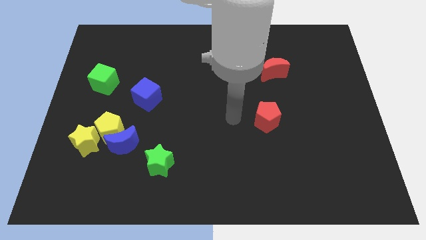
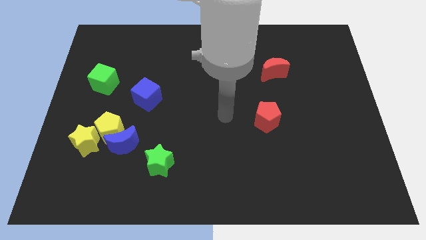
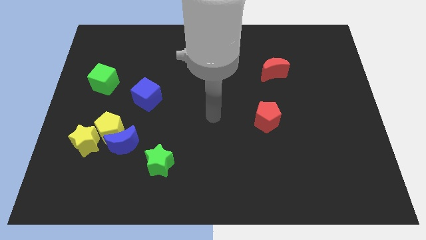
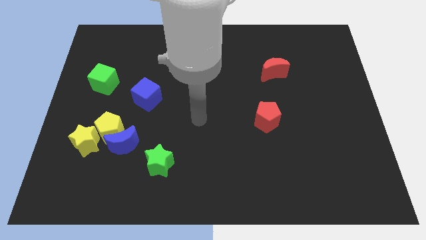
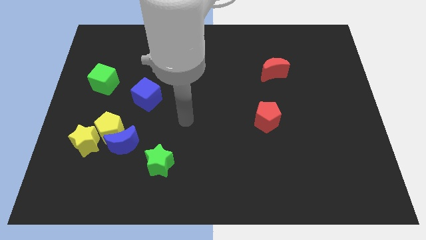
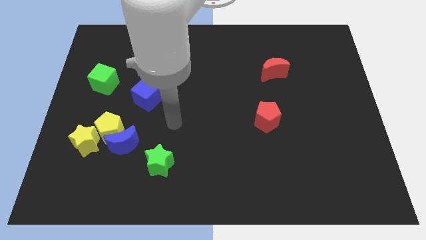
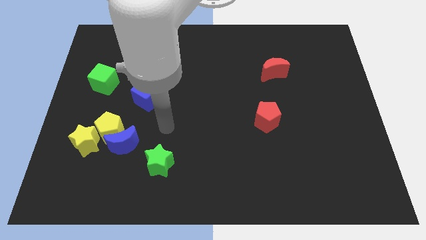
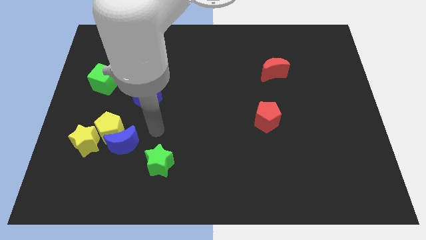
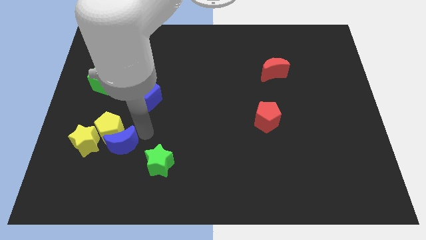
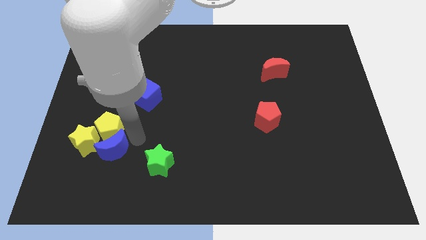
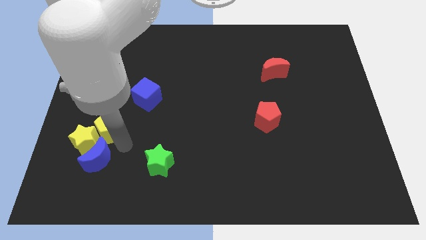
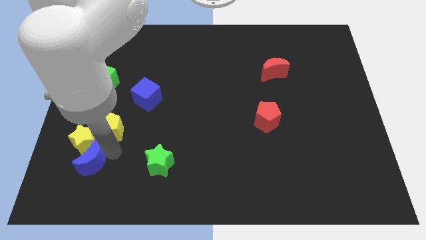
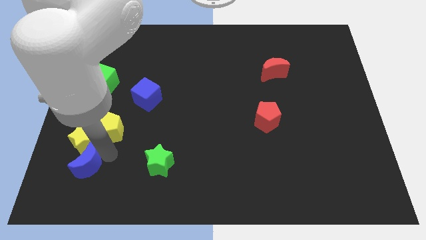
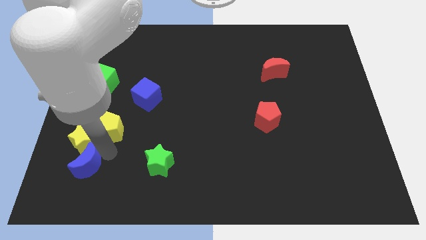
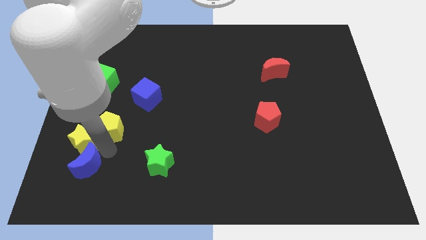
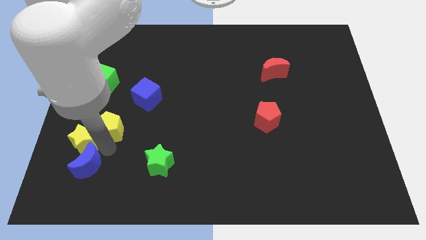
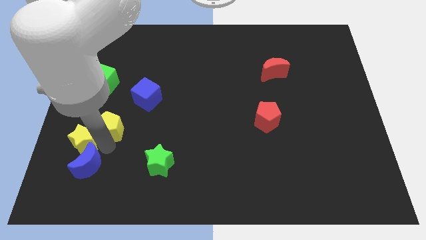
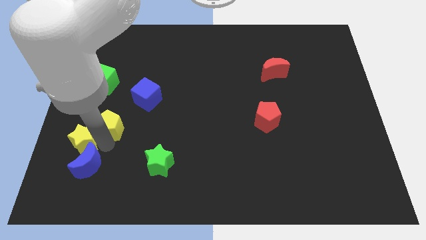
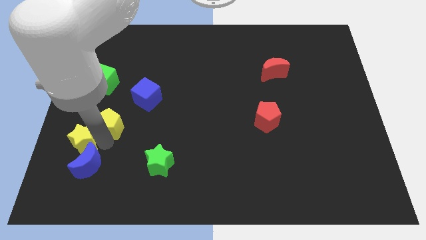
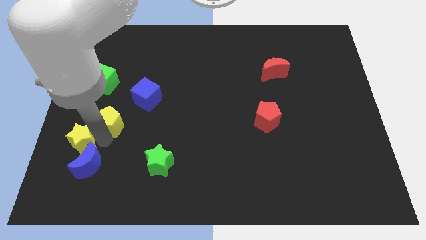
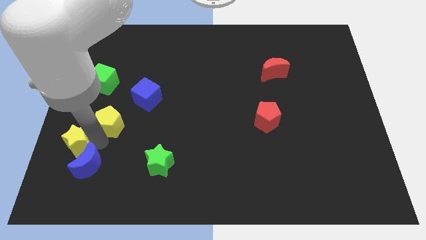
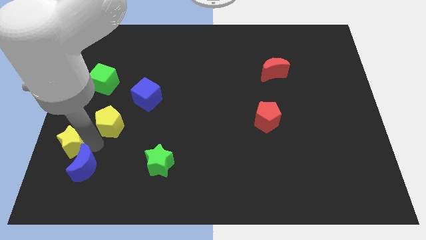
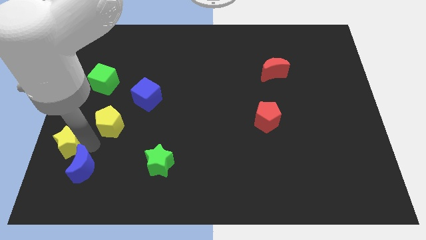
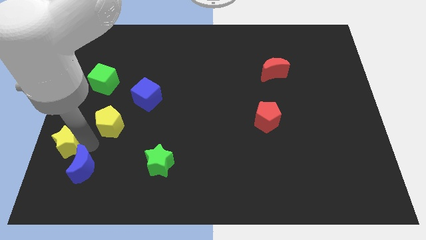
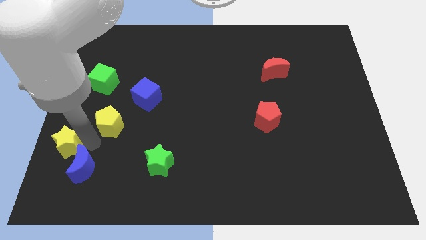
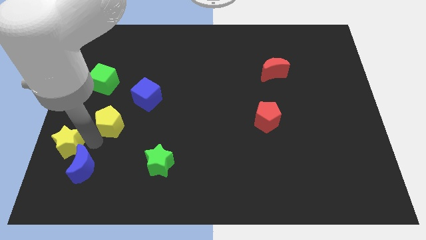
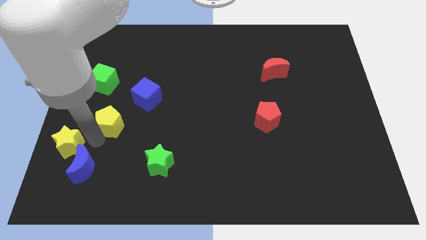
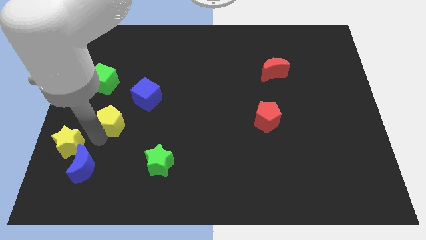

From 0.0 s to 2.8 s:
pull the yellow pentagon apart from the blue moon and yellow star

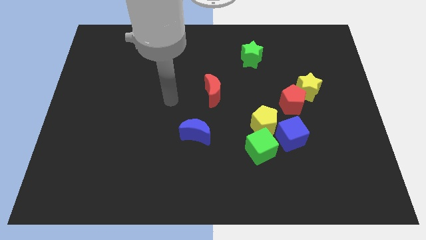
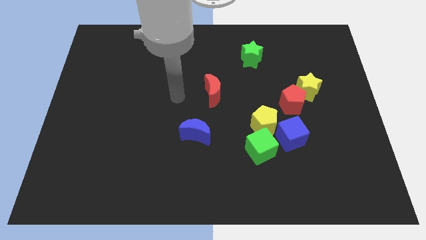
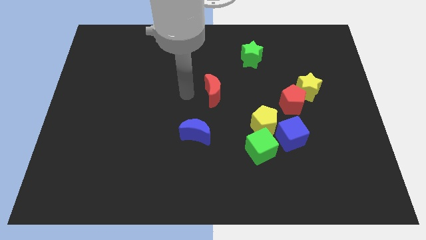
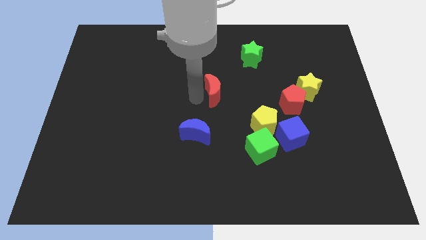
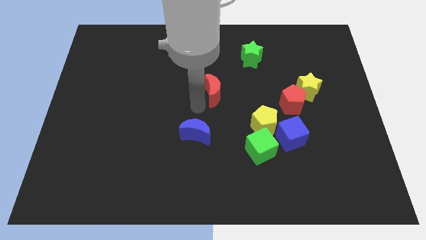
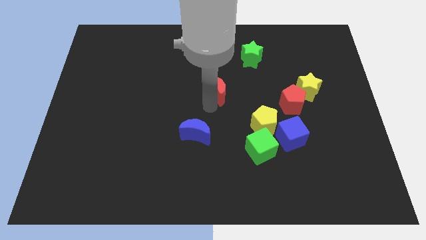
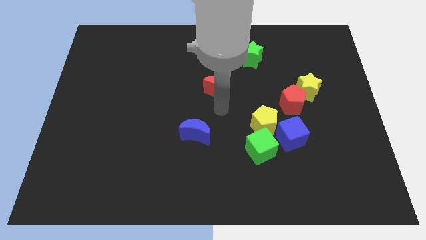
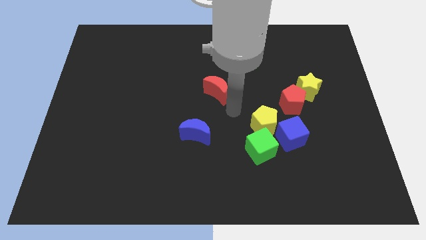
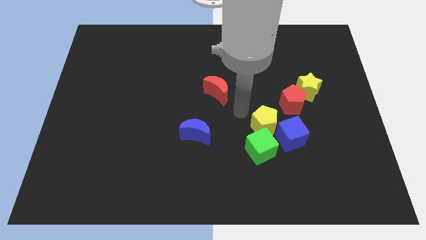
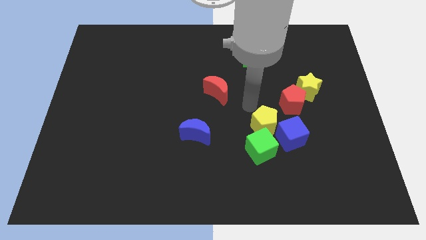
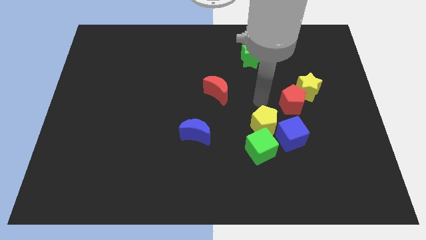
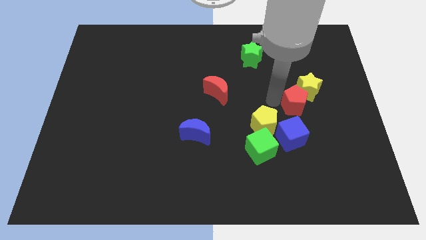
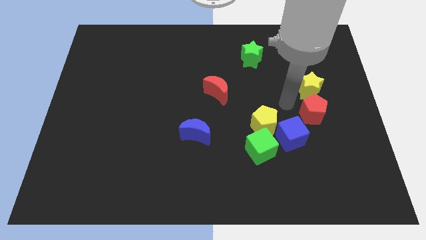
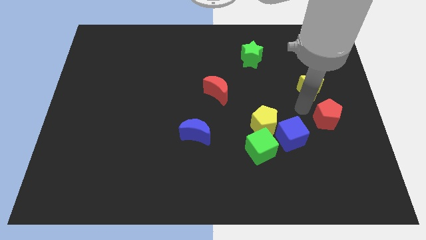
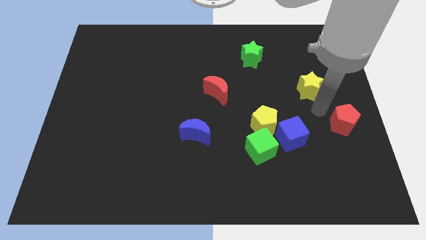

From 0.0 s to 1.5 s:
move the yellow star away from the red pentagon

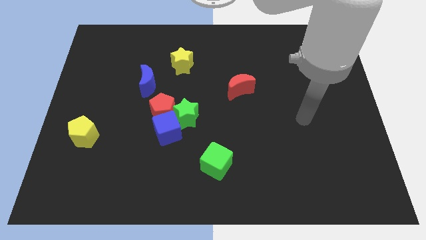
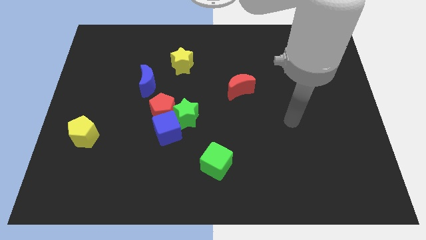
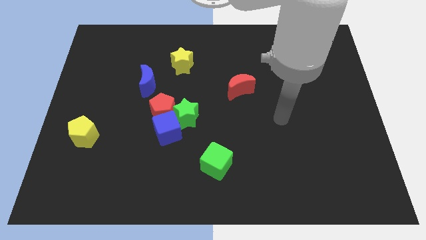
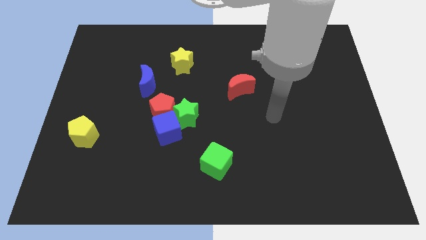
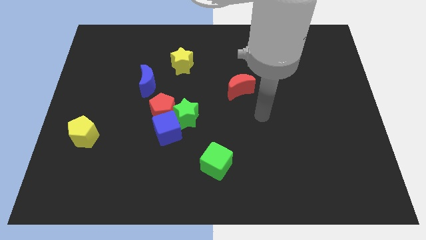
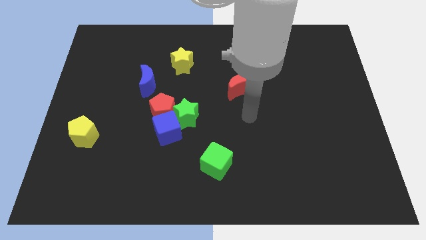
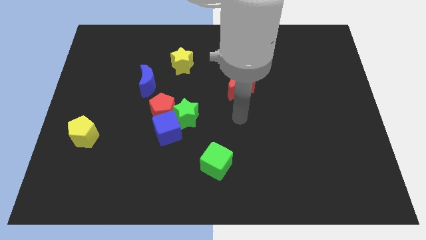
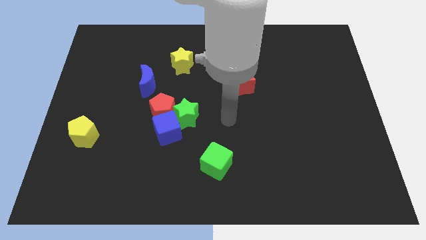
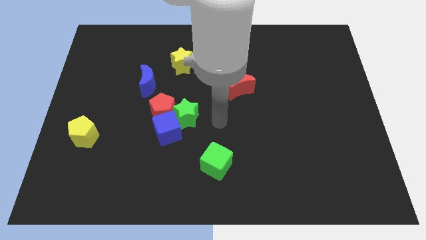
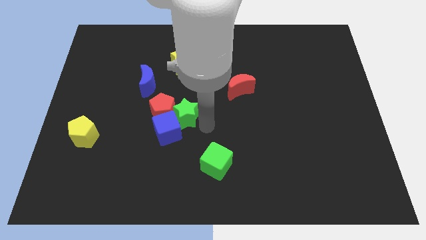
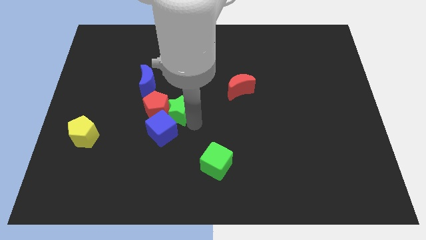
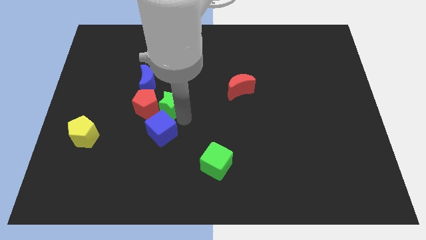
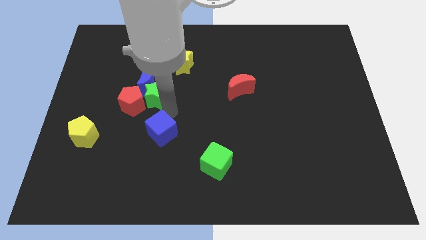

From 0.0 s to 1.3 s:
pull the blue cube apart from the red pentagon and green star

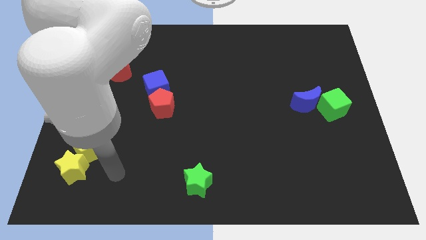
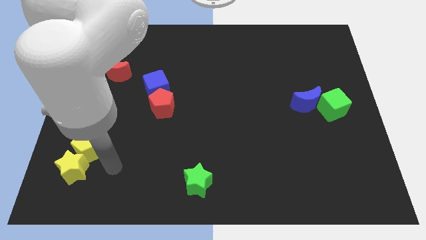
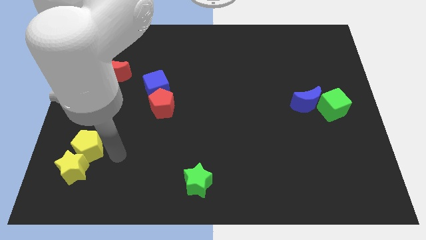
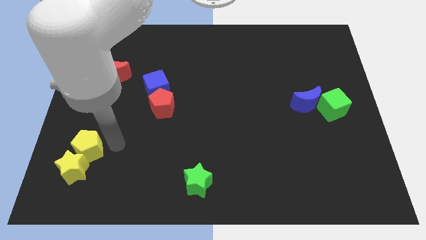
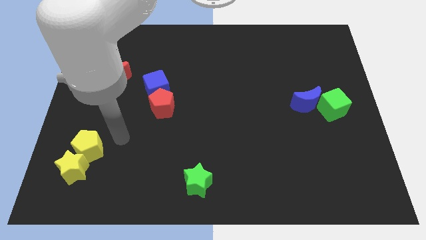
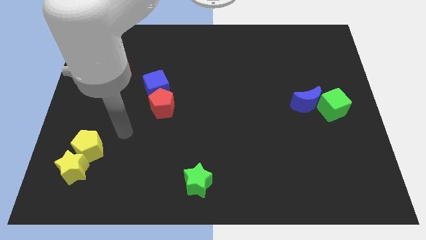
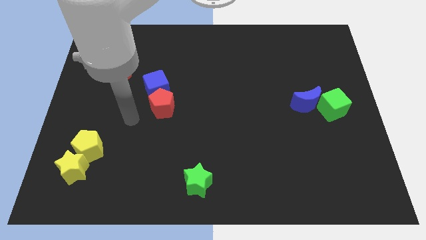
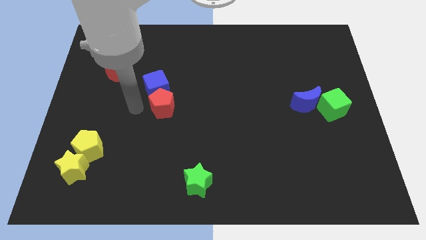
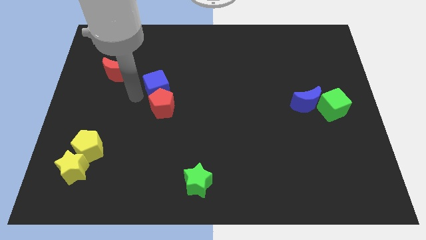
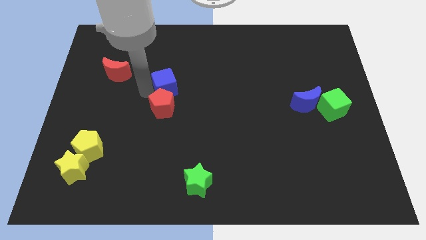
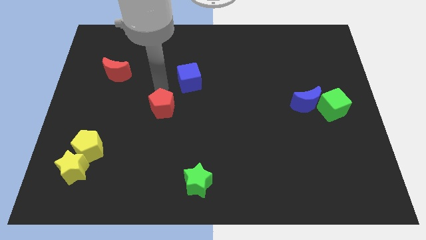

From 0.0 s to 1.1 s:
move the red pentagon away from the blue cube

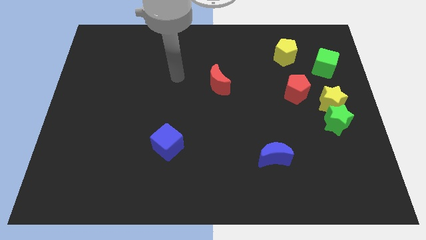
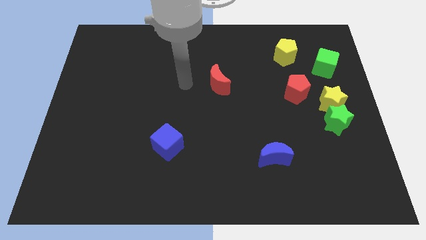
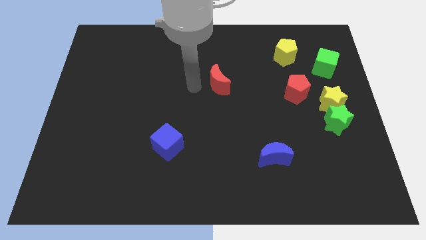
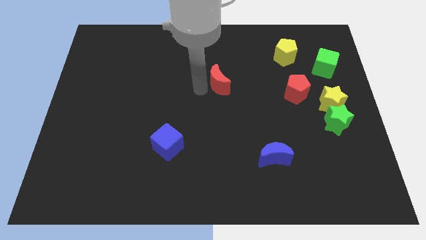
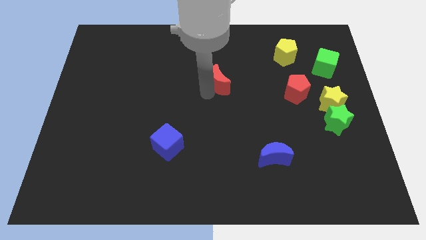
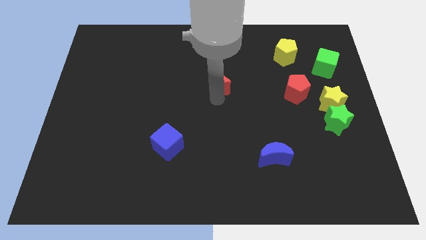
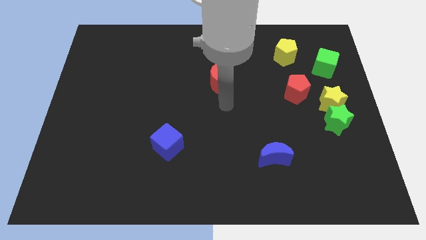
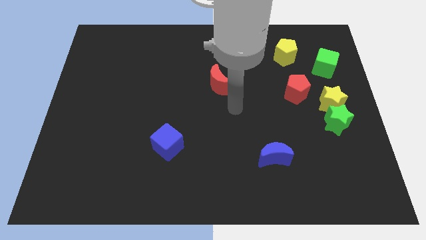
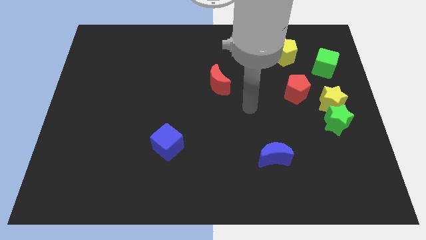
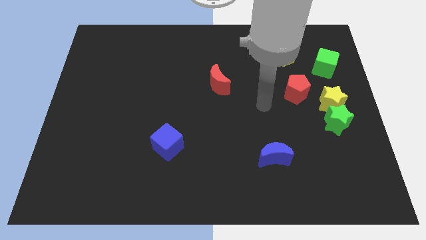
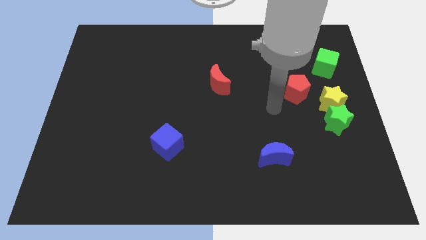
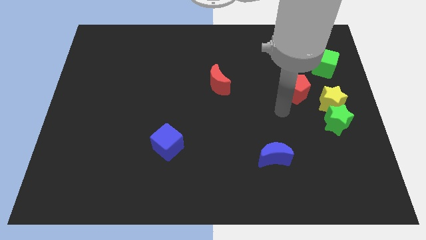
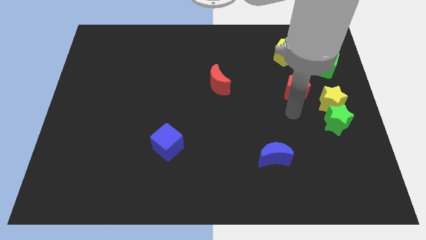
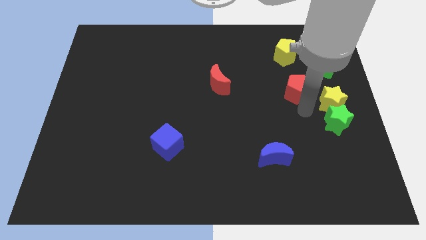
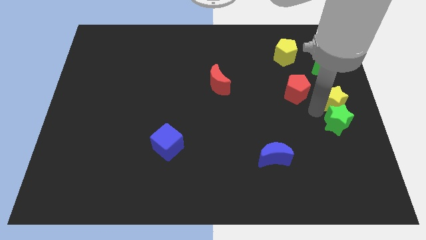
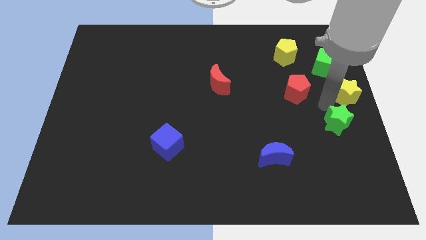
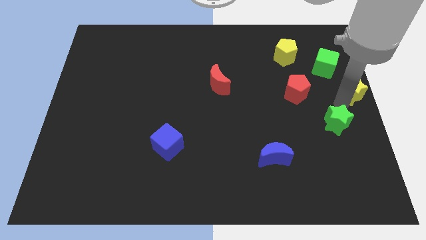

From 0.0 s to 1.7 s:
move the green star away from the yellow star

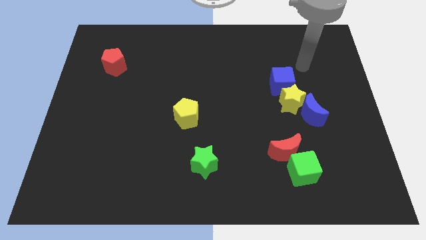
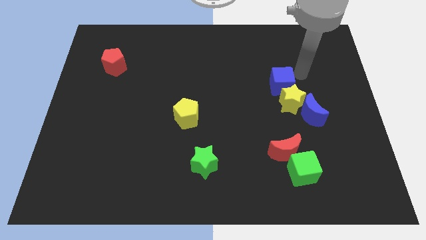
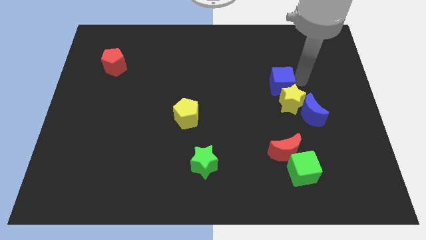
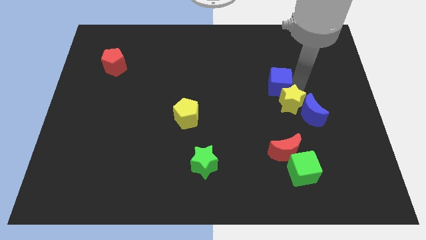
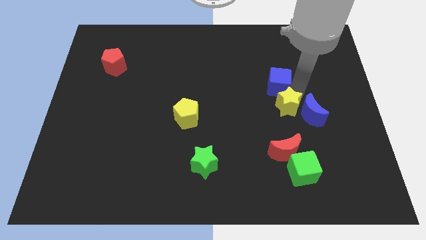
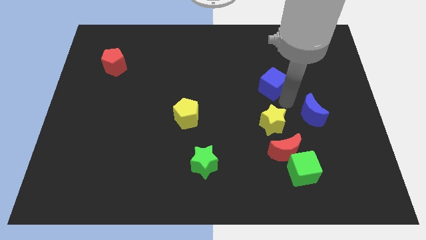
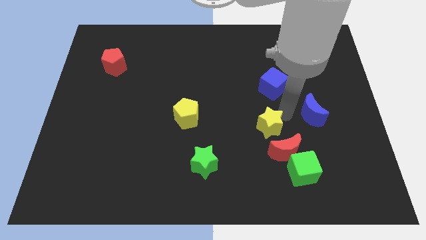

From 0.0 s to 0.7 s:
separate the blue moon from the yellow star

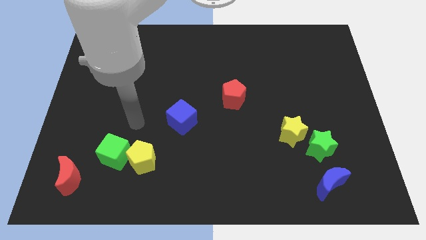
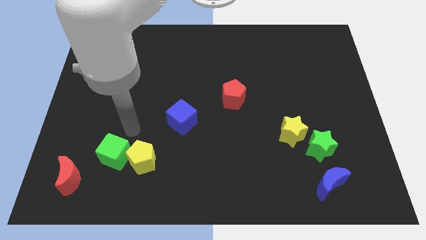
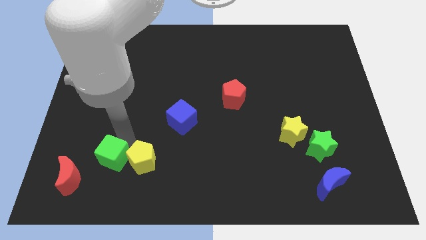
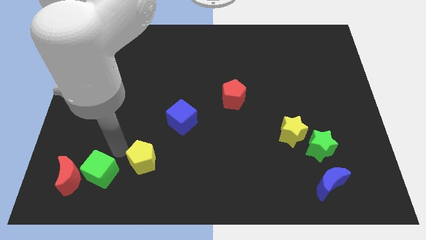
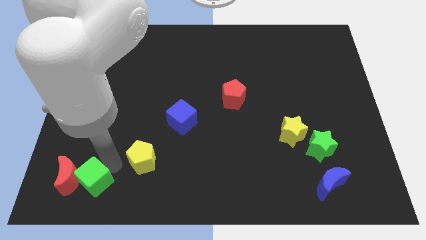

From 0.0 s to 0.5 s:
separate the yellow pentagon from the green cube
